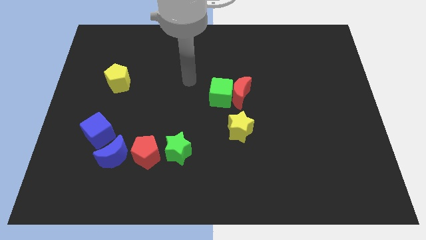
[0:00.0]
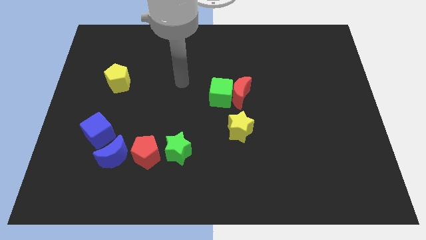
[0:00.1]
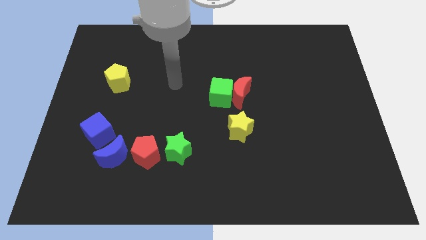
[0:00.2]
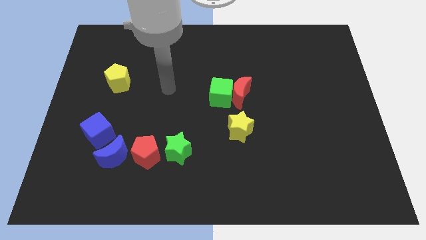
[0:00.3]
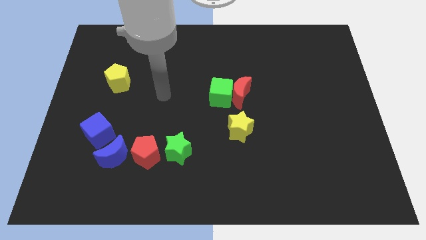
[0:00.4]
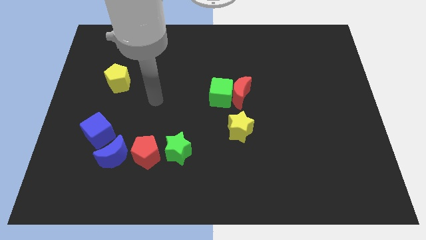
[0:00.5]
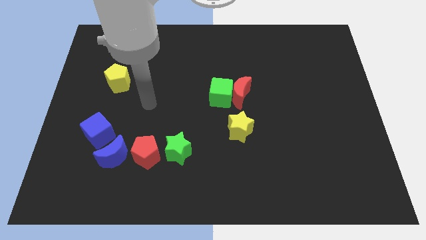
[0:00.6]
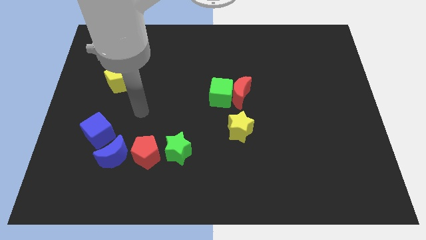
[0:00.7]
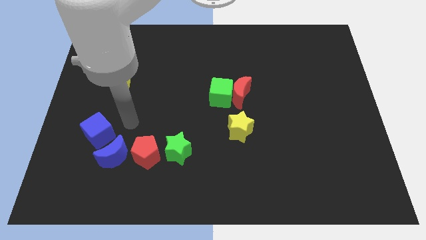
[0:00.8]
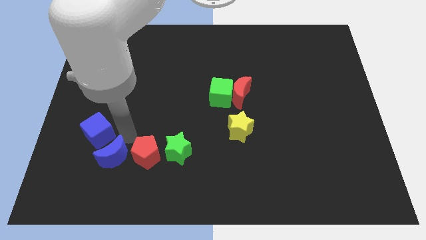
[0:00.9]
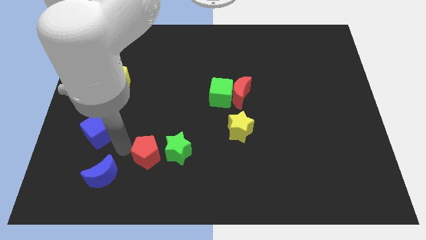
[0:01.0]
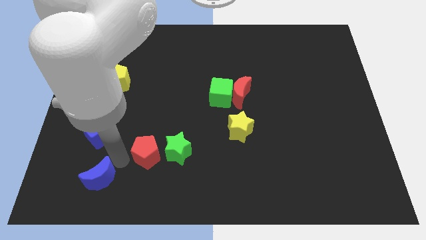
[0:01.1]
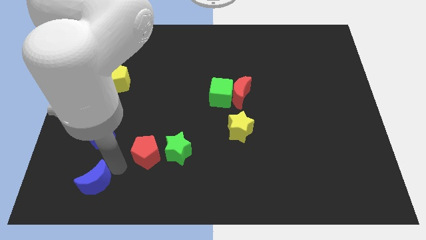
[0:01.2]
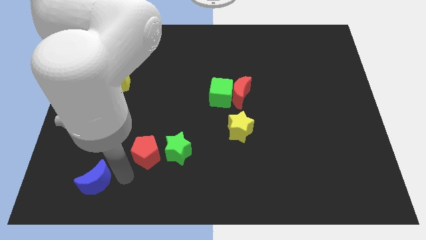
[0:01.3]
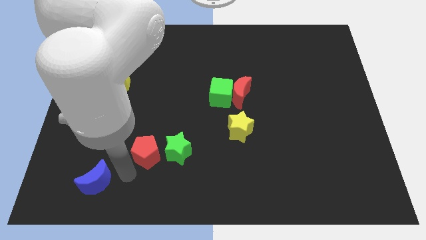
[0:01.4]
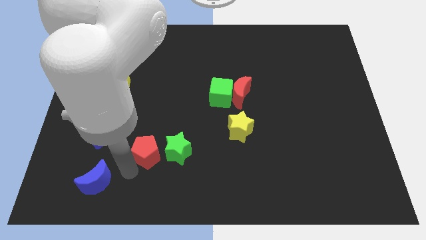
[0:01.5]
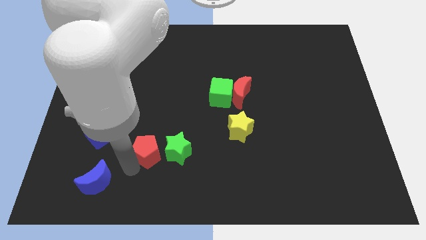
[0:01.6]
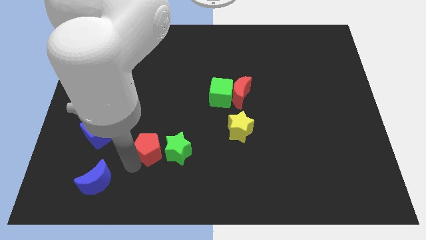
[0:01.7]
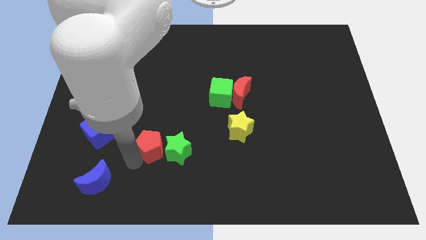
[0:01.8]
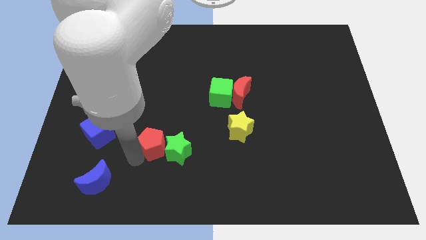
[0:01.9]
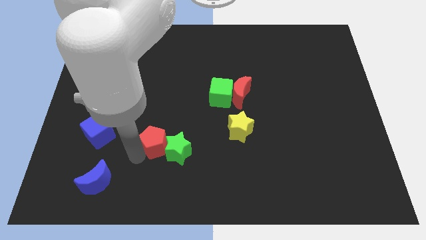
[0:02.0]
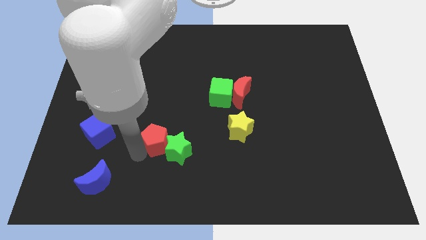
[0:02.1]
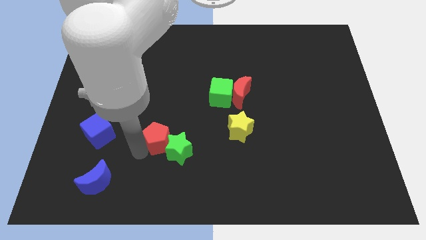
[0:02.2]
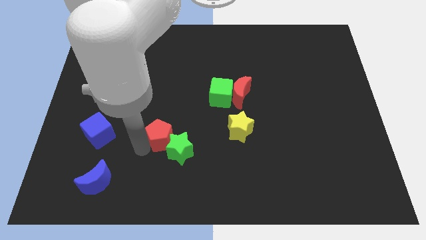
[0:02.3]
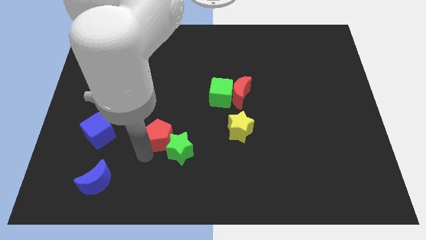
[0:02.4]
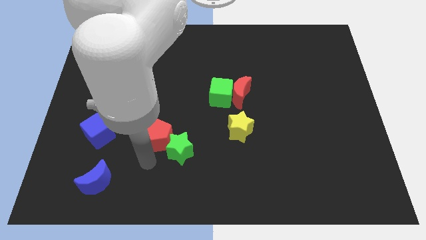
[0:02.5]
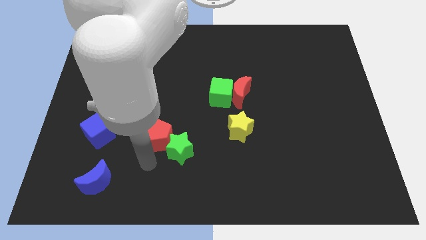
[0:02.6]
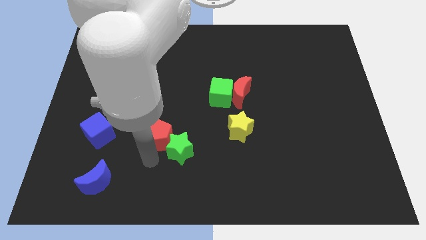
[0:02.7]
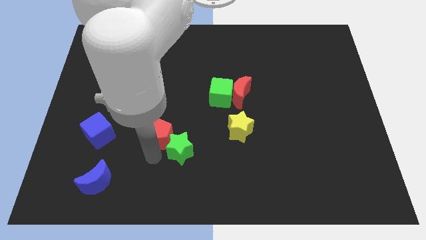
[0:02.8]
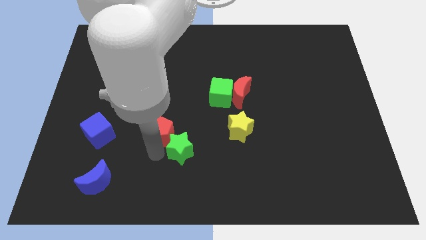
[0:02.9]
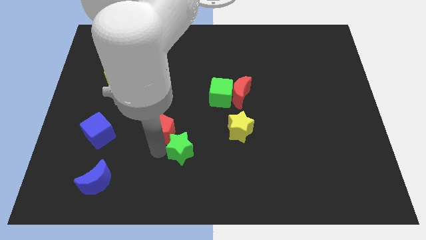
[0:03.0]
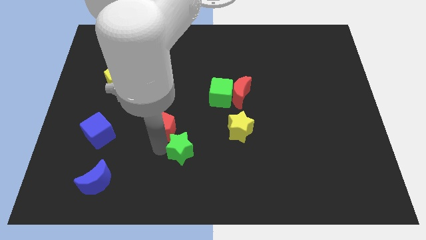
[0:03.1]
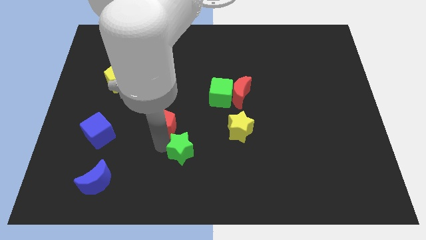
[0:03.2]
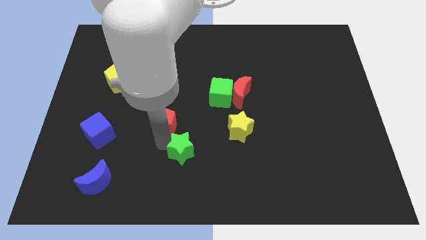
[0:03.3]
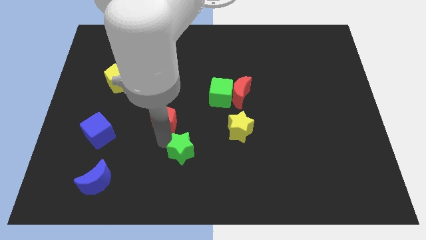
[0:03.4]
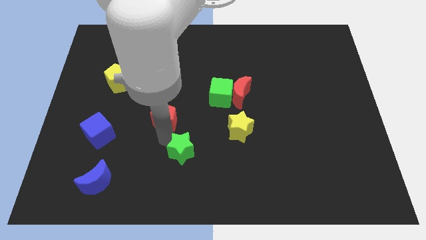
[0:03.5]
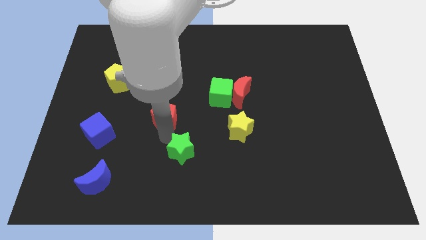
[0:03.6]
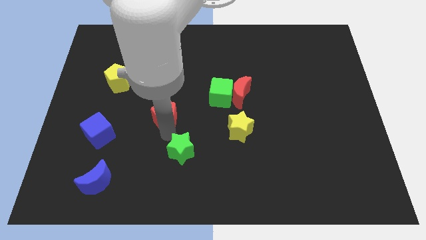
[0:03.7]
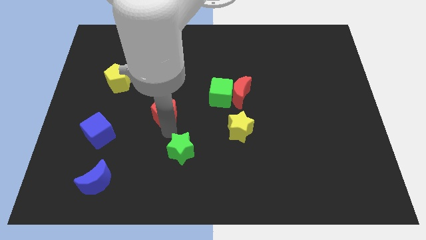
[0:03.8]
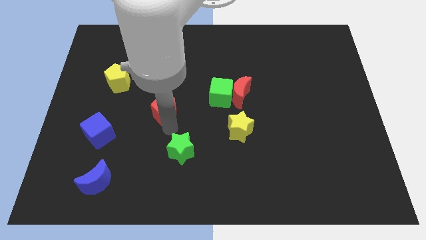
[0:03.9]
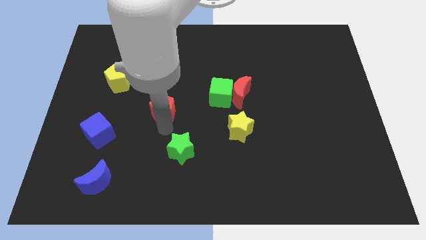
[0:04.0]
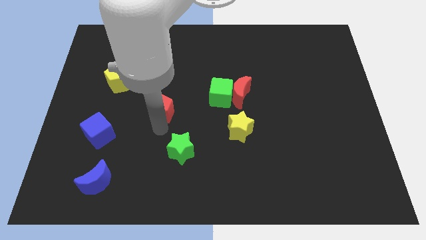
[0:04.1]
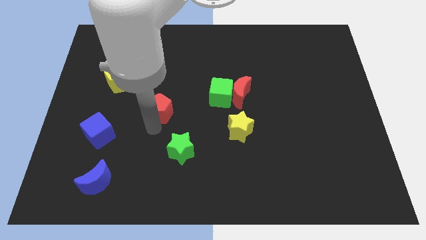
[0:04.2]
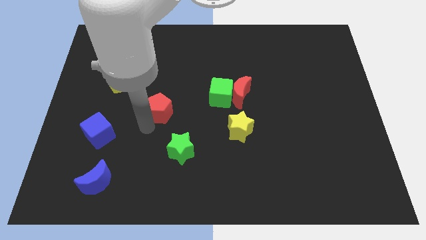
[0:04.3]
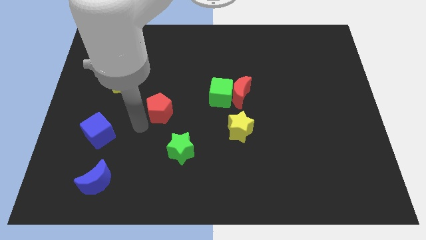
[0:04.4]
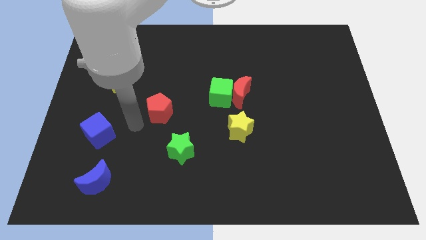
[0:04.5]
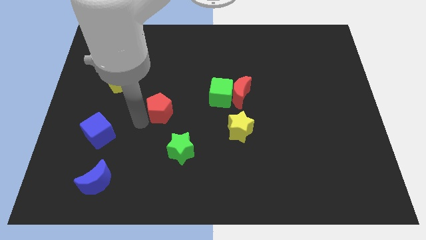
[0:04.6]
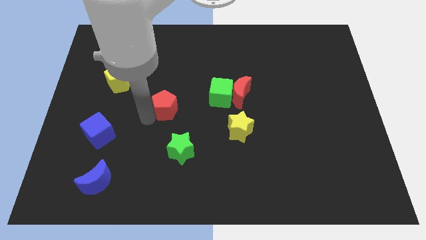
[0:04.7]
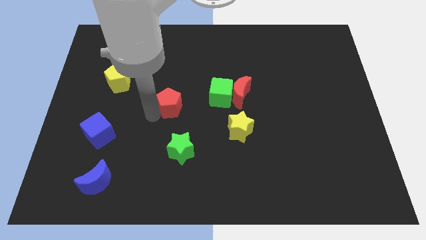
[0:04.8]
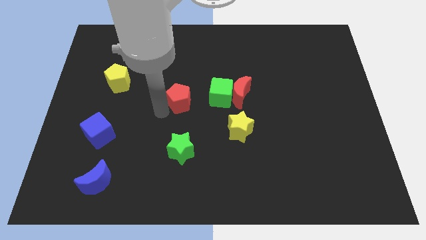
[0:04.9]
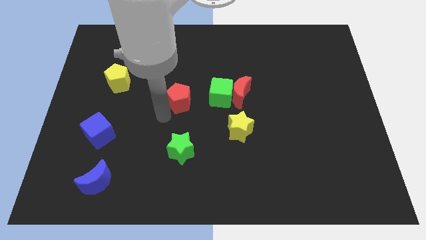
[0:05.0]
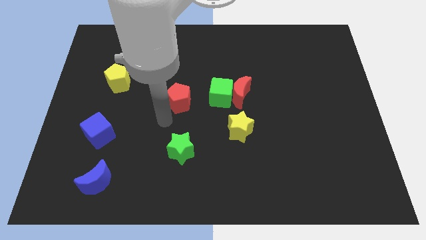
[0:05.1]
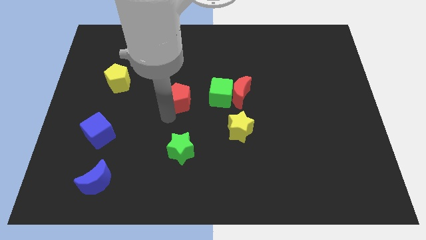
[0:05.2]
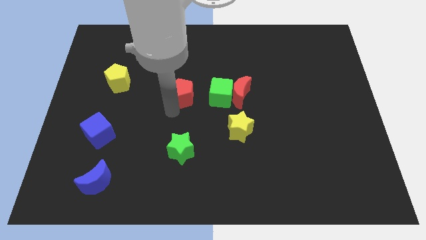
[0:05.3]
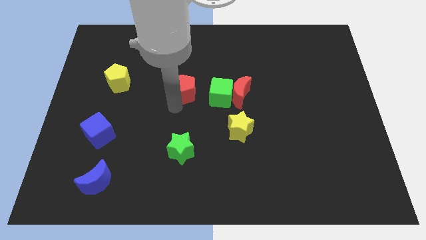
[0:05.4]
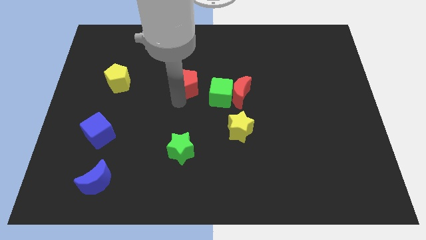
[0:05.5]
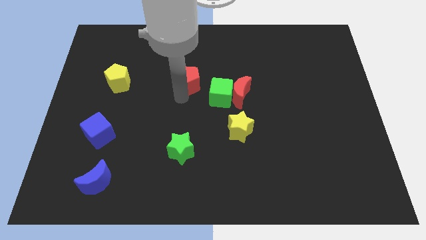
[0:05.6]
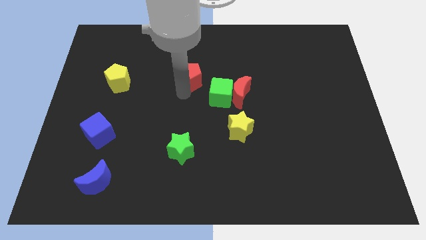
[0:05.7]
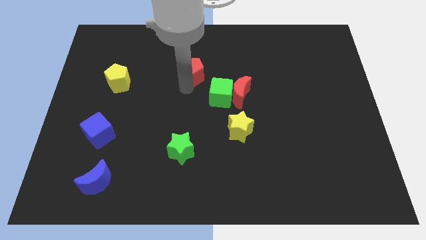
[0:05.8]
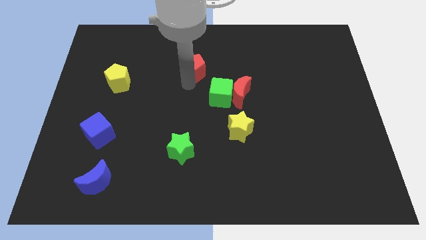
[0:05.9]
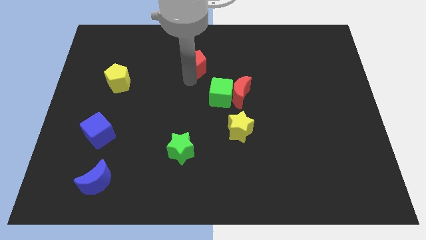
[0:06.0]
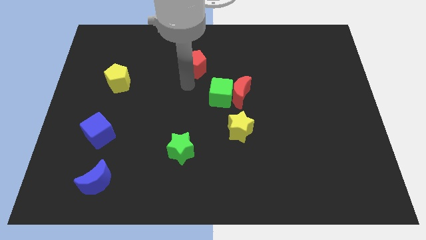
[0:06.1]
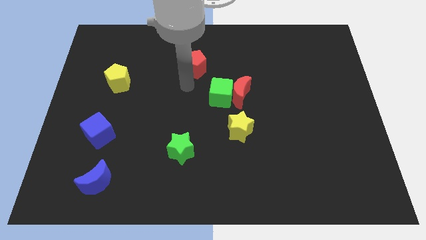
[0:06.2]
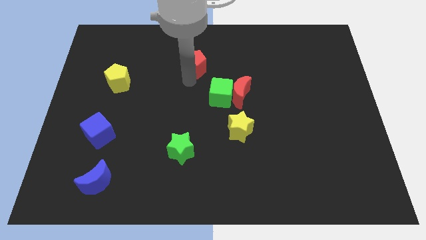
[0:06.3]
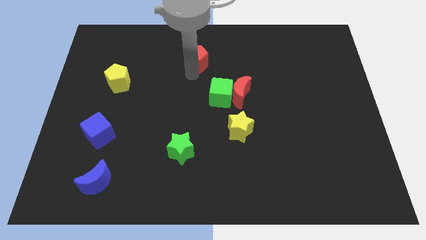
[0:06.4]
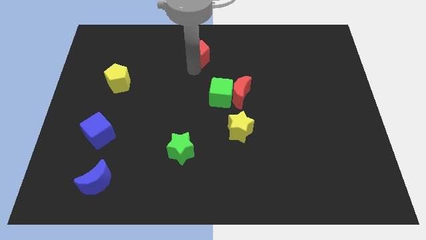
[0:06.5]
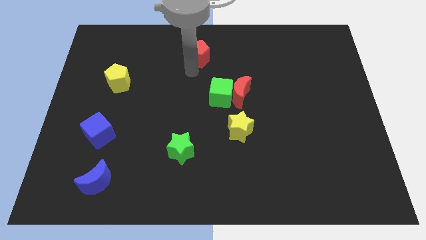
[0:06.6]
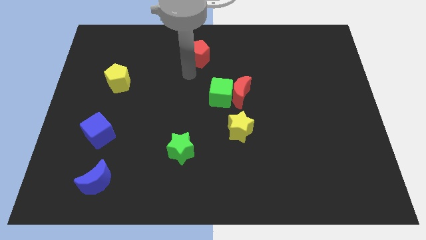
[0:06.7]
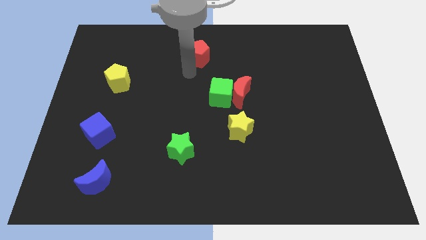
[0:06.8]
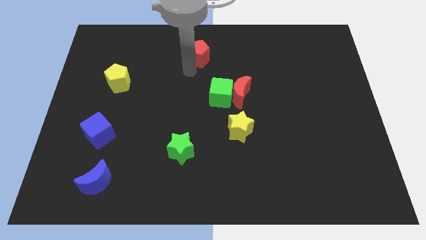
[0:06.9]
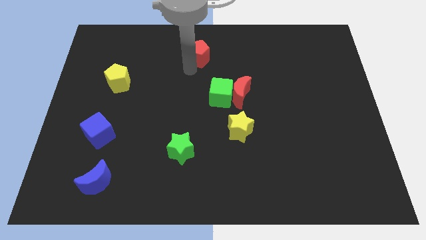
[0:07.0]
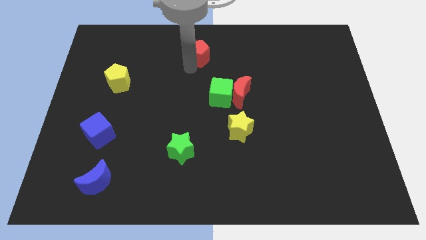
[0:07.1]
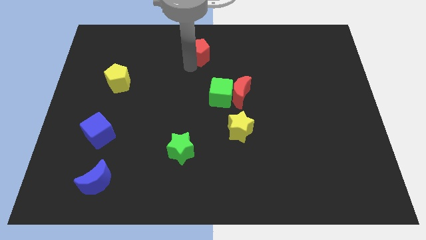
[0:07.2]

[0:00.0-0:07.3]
slide the red pentagon to the top side

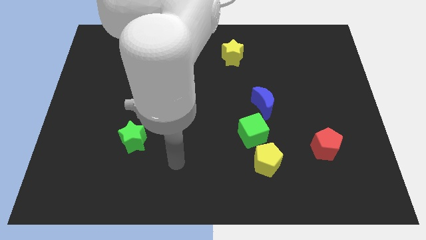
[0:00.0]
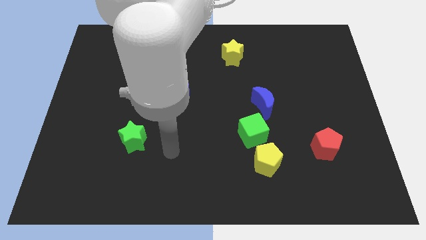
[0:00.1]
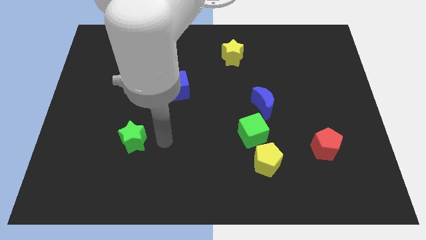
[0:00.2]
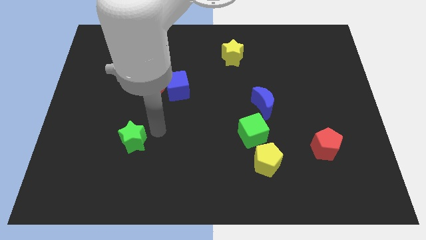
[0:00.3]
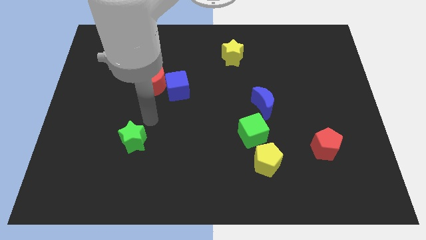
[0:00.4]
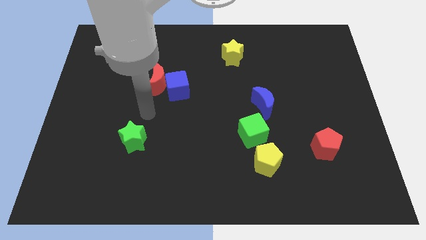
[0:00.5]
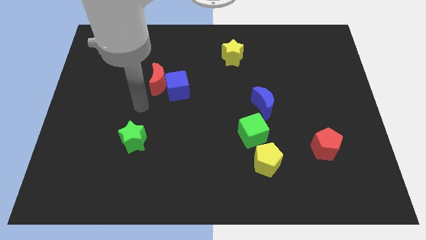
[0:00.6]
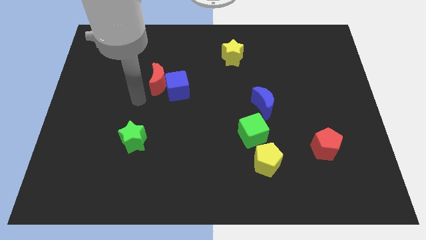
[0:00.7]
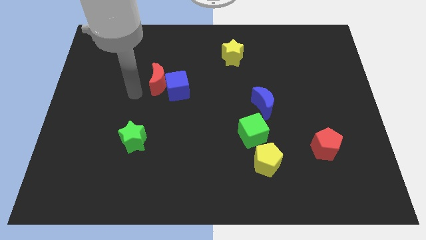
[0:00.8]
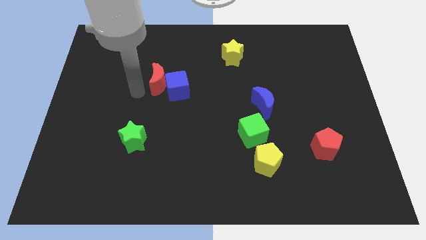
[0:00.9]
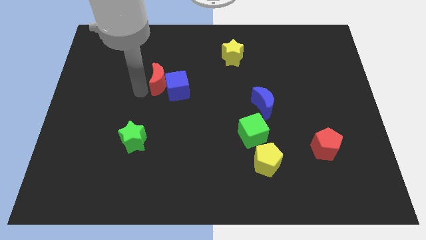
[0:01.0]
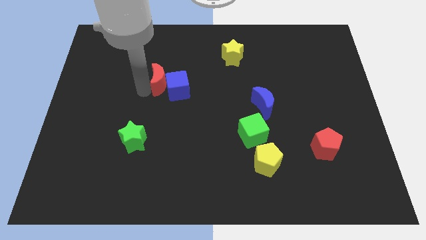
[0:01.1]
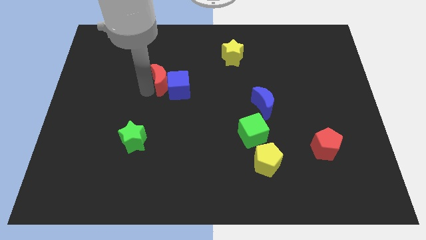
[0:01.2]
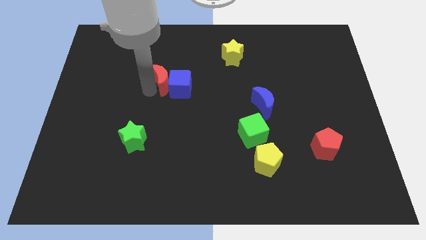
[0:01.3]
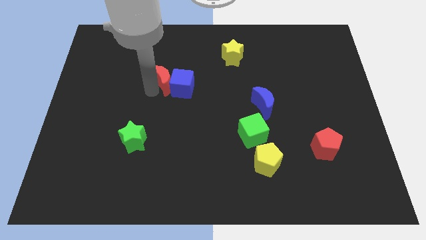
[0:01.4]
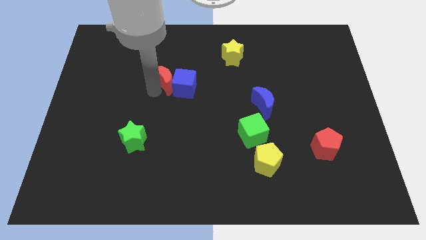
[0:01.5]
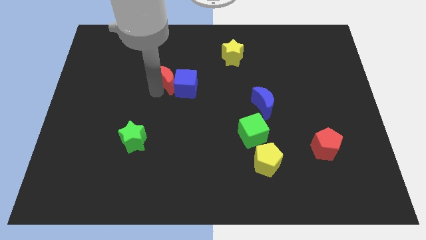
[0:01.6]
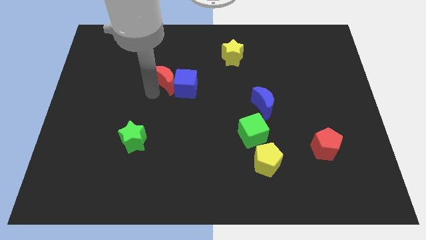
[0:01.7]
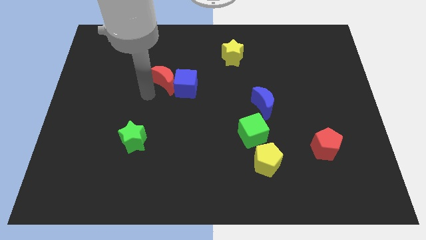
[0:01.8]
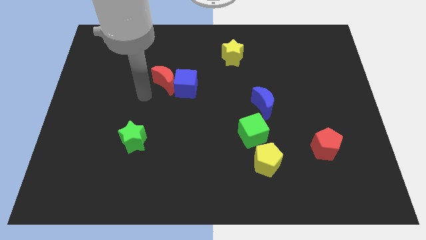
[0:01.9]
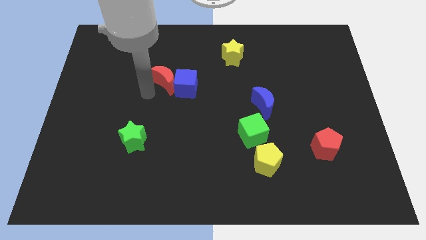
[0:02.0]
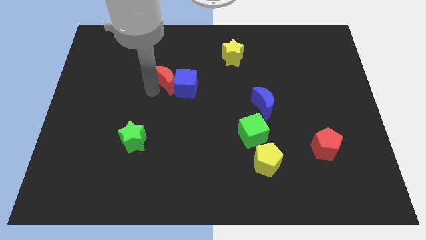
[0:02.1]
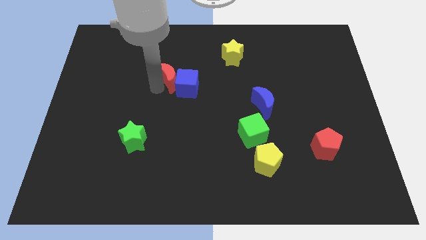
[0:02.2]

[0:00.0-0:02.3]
push the red moon to the center
